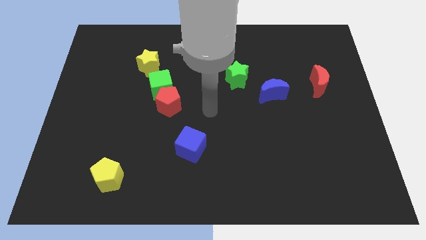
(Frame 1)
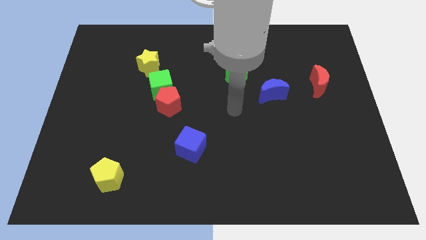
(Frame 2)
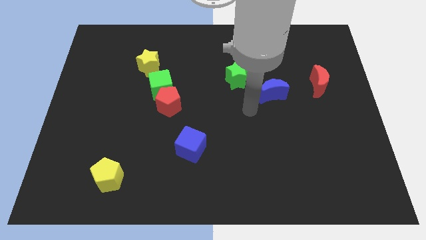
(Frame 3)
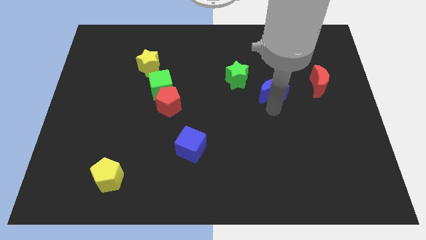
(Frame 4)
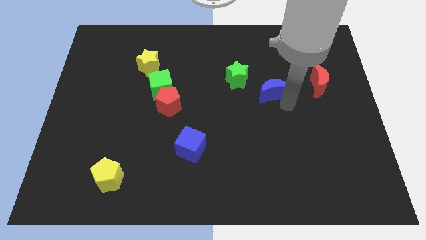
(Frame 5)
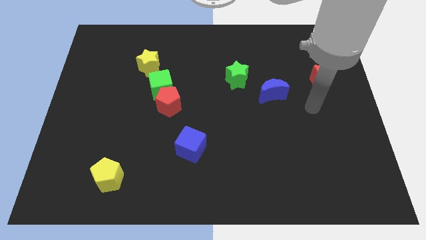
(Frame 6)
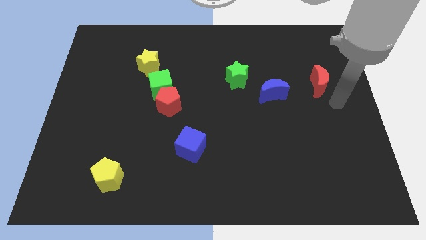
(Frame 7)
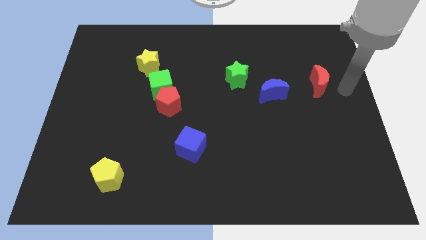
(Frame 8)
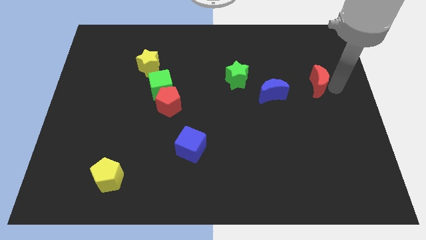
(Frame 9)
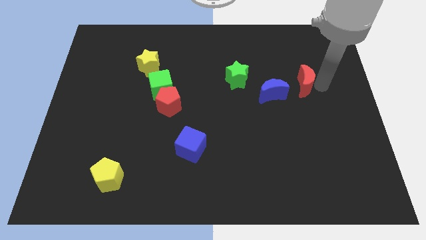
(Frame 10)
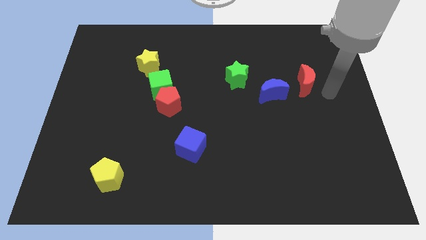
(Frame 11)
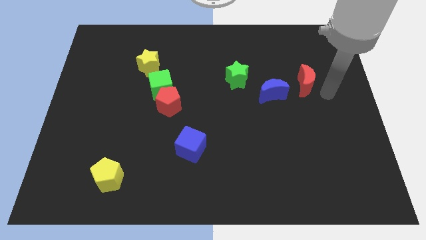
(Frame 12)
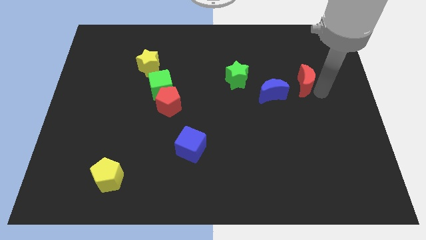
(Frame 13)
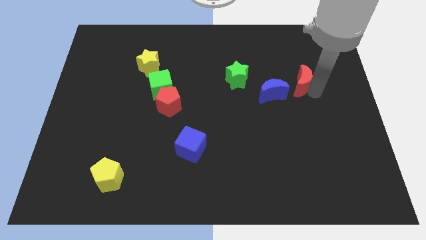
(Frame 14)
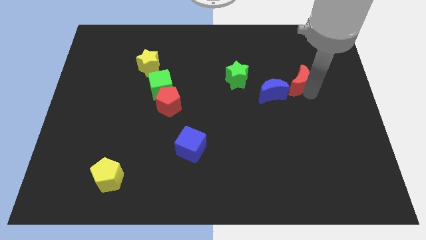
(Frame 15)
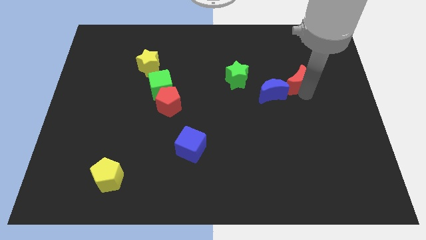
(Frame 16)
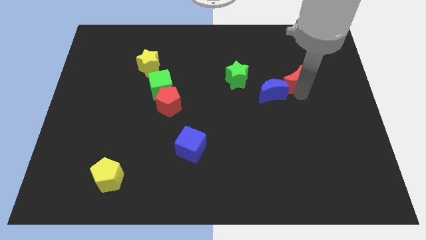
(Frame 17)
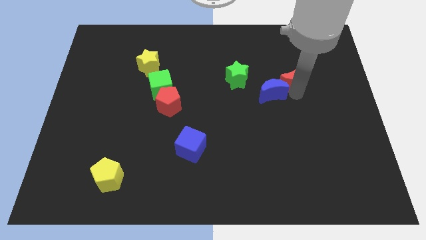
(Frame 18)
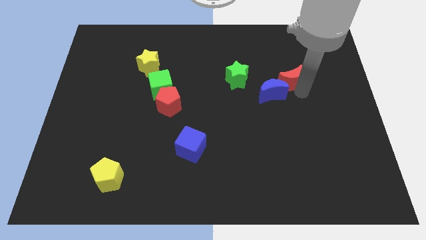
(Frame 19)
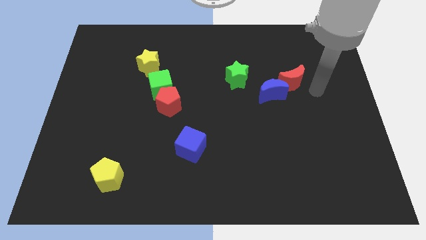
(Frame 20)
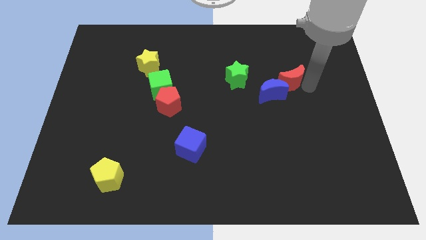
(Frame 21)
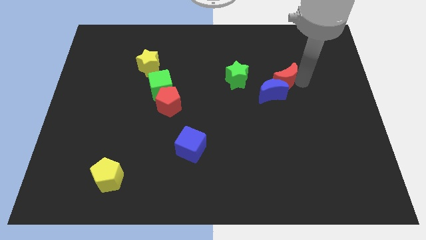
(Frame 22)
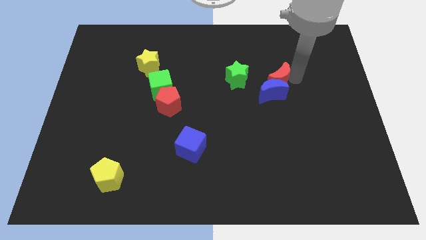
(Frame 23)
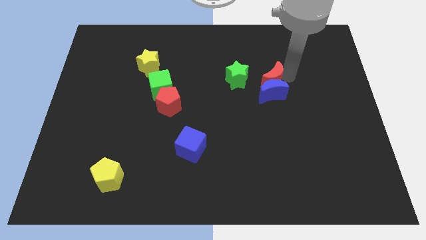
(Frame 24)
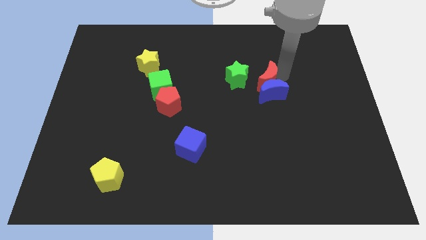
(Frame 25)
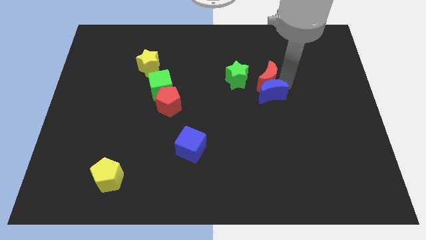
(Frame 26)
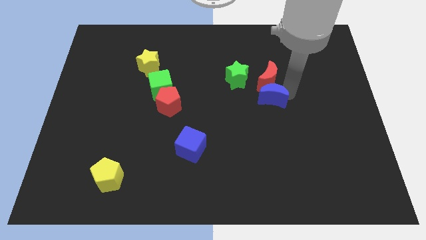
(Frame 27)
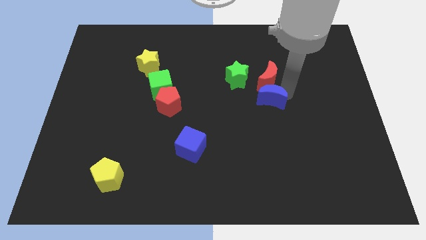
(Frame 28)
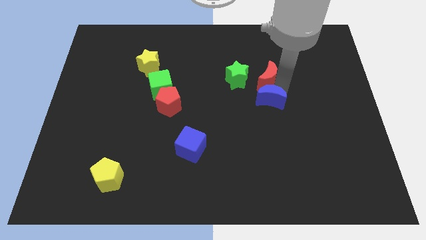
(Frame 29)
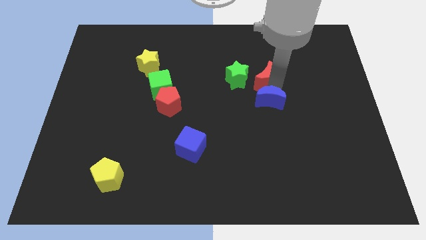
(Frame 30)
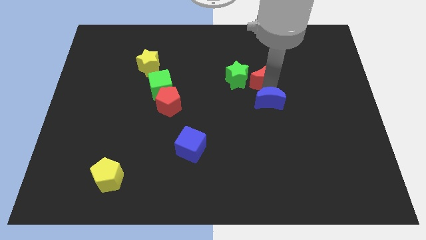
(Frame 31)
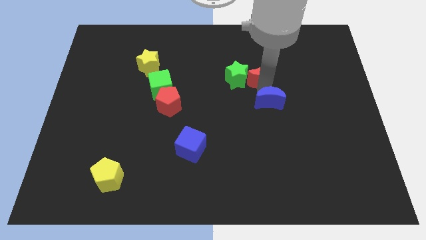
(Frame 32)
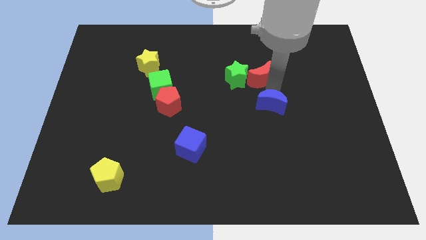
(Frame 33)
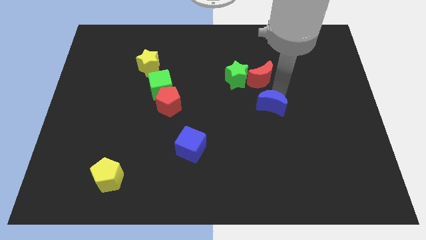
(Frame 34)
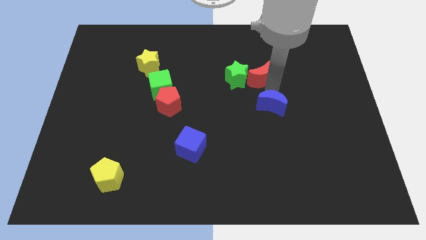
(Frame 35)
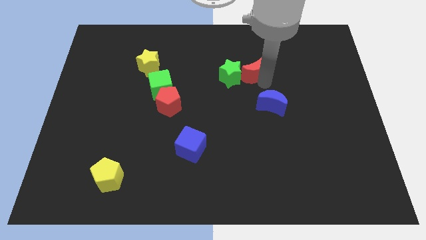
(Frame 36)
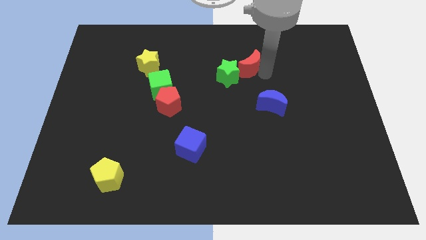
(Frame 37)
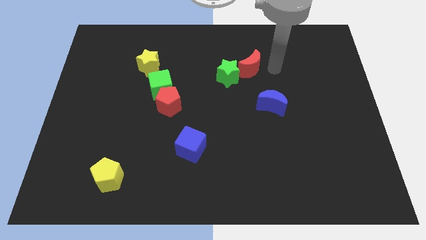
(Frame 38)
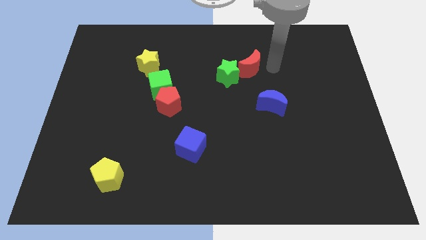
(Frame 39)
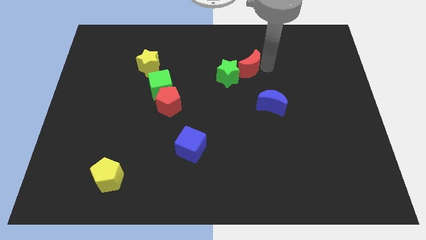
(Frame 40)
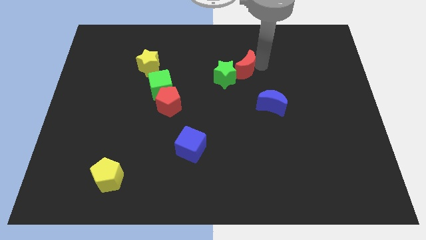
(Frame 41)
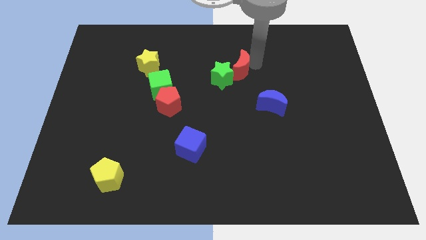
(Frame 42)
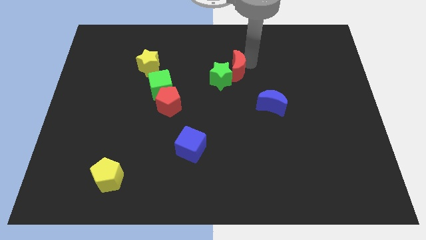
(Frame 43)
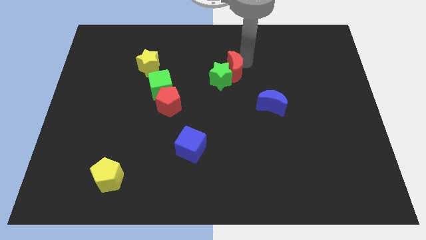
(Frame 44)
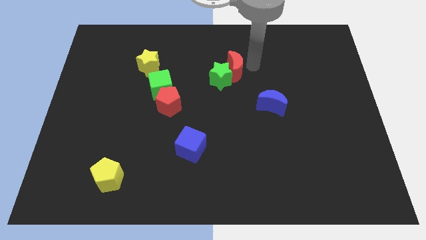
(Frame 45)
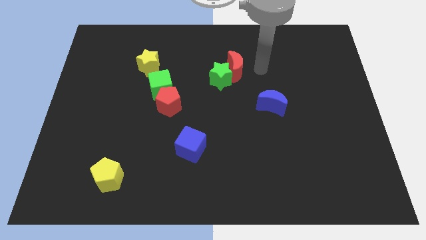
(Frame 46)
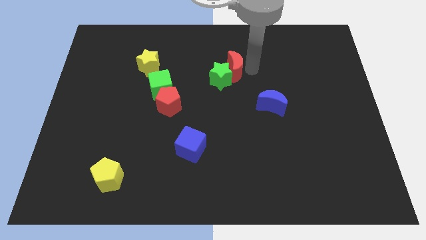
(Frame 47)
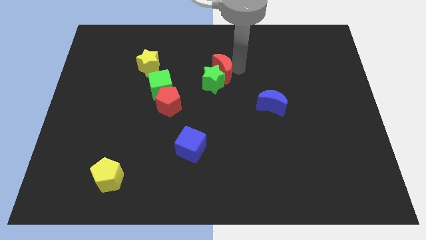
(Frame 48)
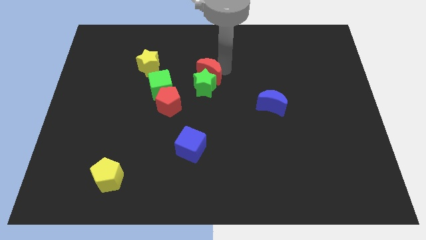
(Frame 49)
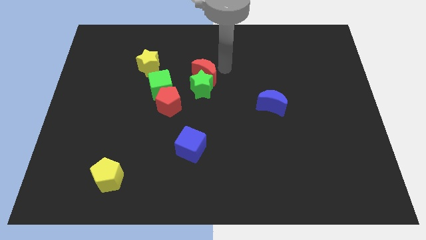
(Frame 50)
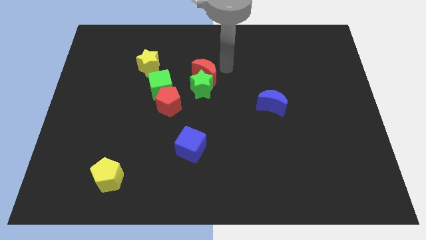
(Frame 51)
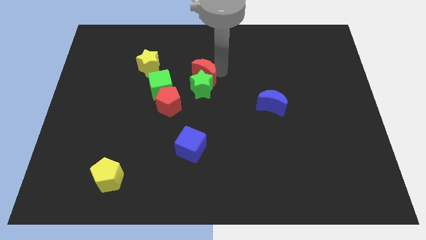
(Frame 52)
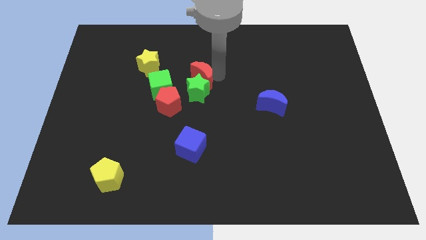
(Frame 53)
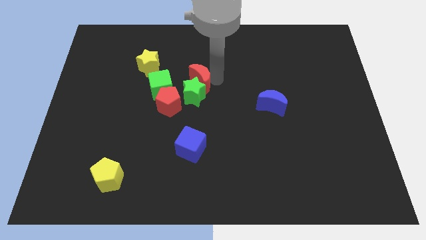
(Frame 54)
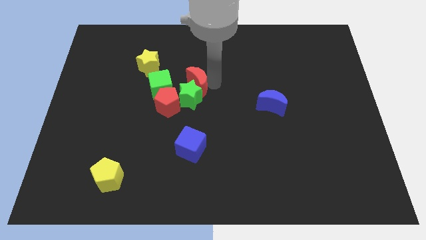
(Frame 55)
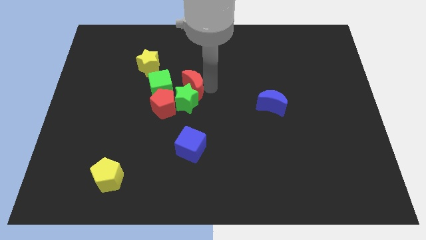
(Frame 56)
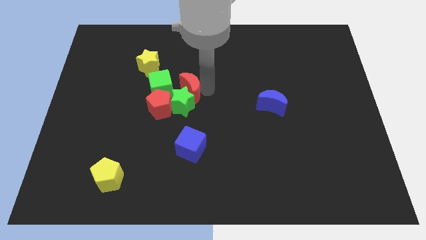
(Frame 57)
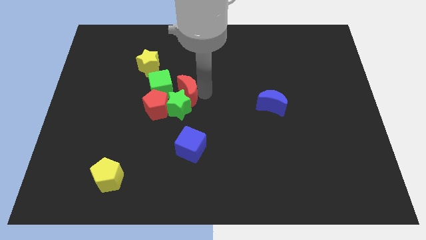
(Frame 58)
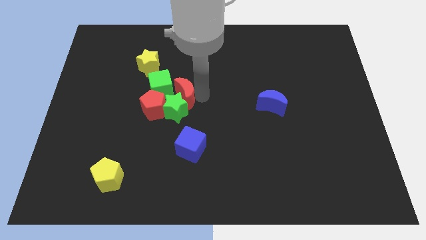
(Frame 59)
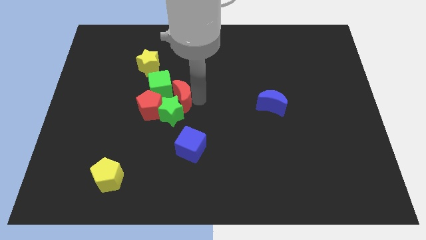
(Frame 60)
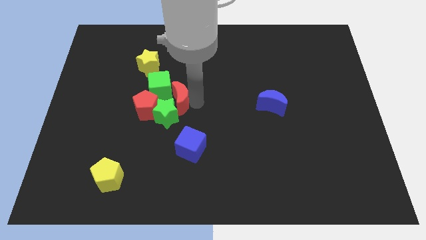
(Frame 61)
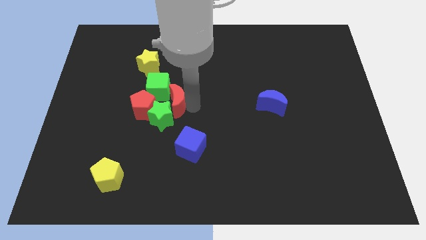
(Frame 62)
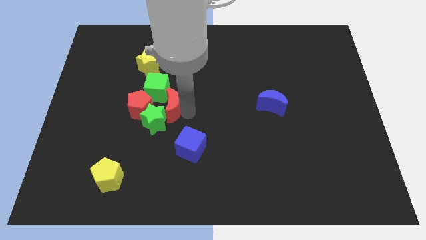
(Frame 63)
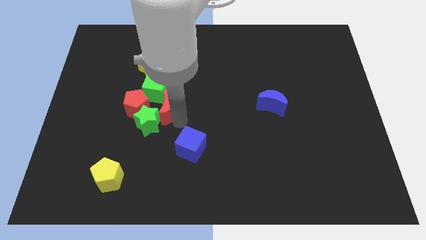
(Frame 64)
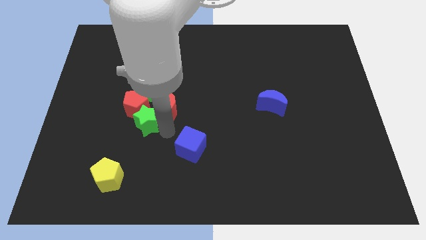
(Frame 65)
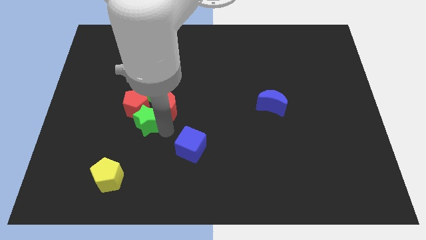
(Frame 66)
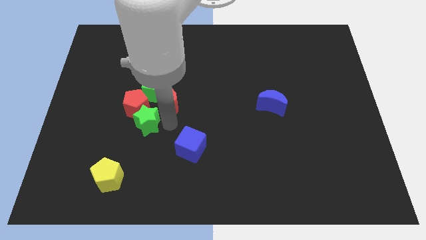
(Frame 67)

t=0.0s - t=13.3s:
move the red moon to the green cube

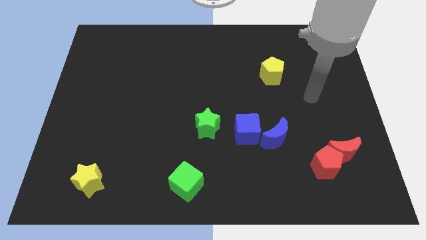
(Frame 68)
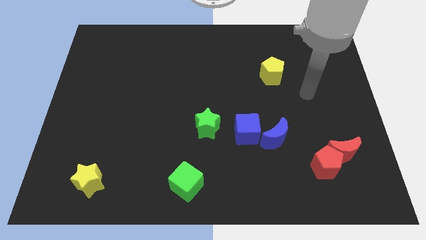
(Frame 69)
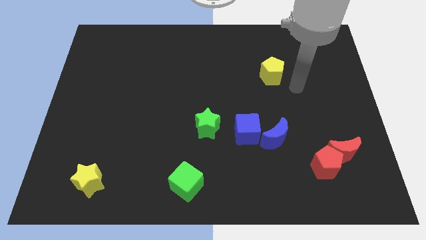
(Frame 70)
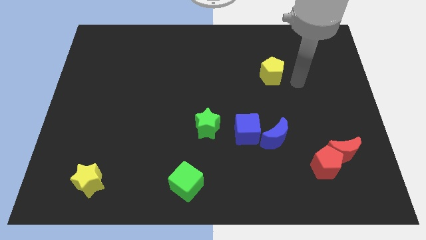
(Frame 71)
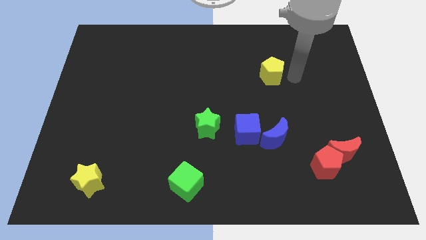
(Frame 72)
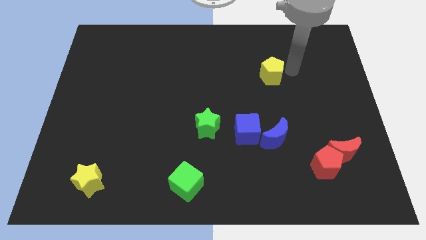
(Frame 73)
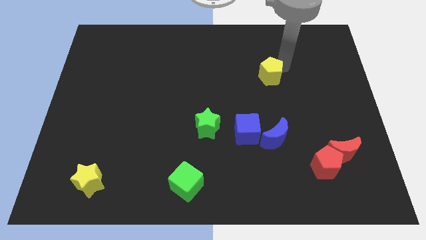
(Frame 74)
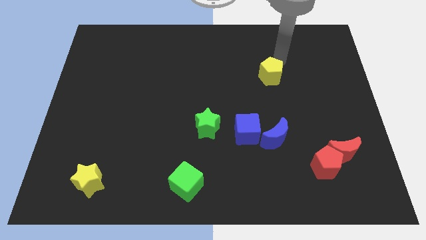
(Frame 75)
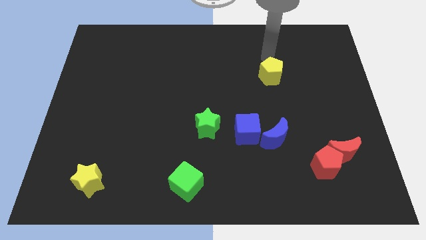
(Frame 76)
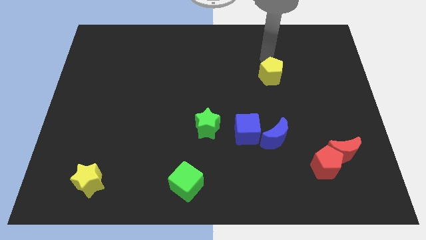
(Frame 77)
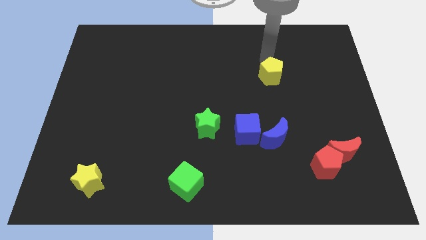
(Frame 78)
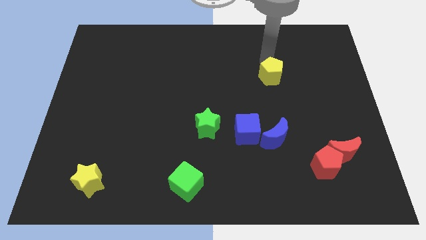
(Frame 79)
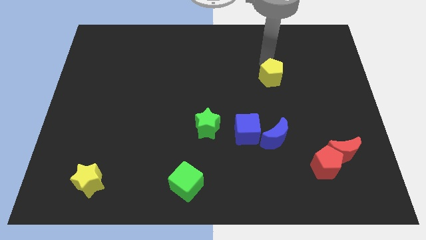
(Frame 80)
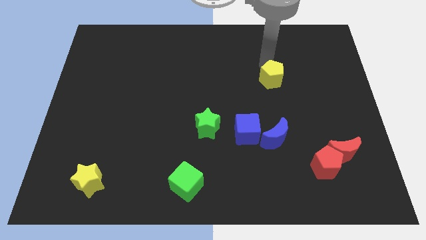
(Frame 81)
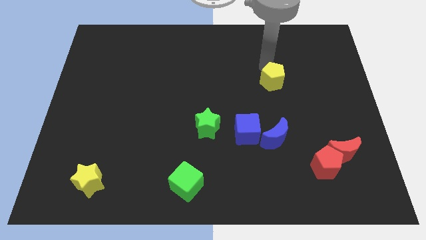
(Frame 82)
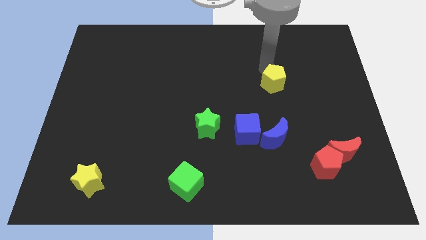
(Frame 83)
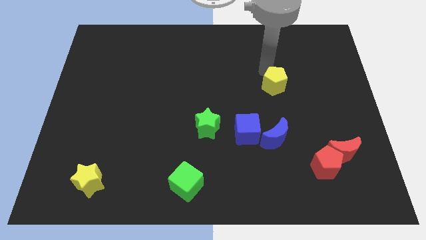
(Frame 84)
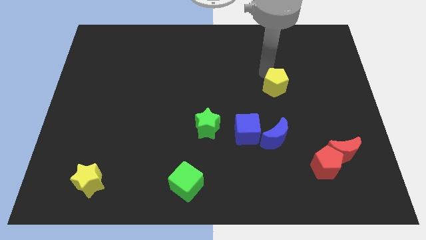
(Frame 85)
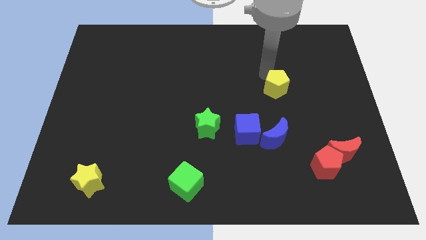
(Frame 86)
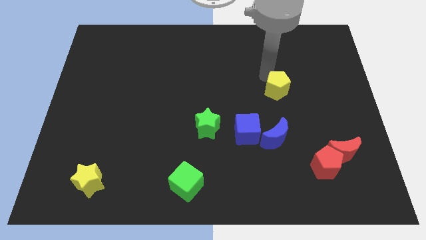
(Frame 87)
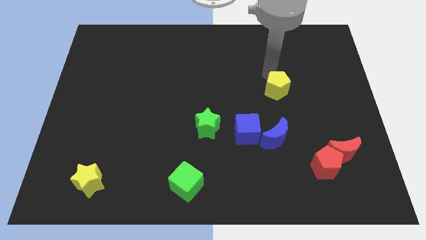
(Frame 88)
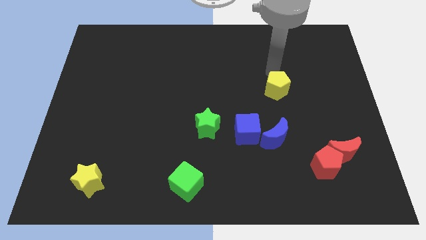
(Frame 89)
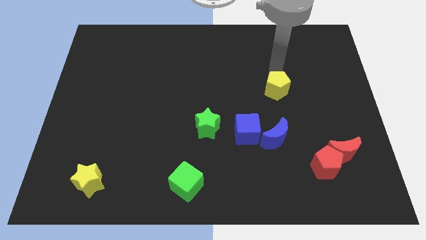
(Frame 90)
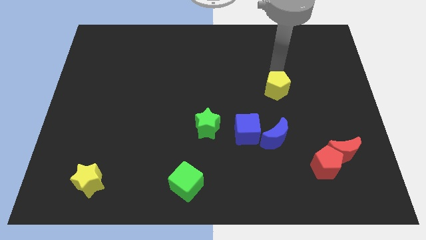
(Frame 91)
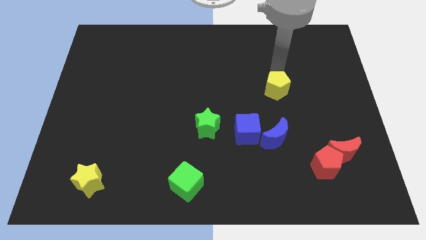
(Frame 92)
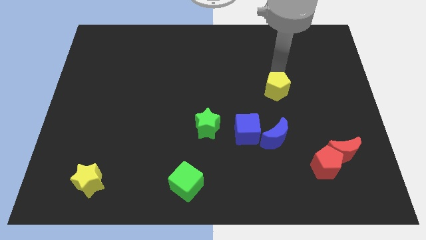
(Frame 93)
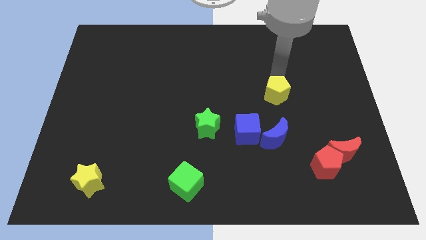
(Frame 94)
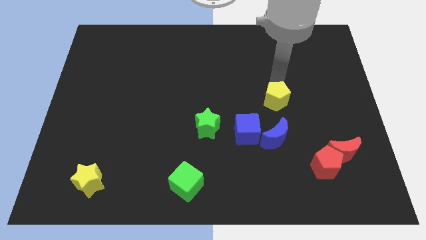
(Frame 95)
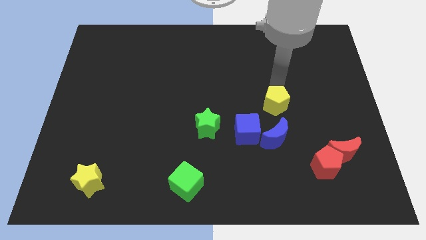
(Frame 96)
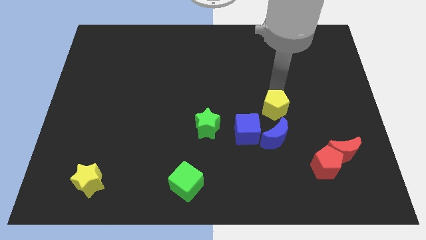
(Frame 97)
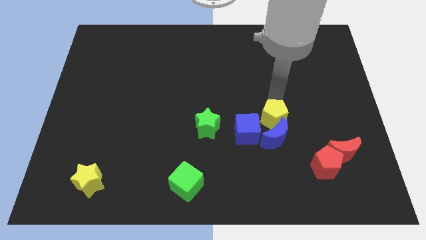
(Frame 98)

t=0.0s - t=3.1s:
slide the yellow pentagon next to the blue moon
